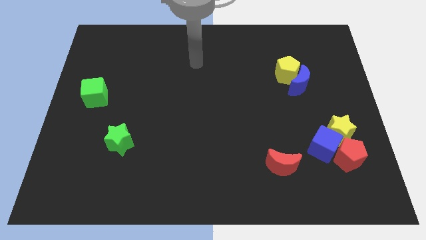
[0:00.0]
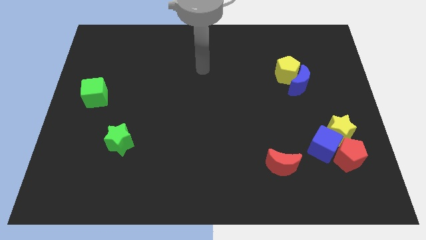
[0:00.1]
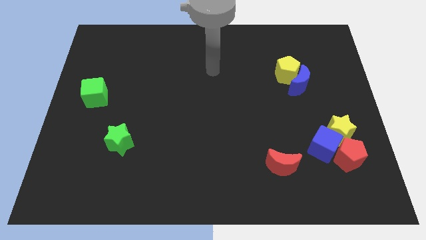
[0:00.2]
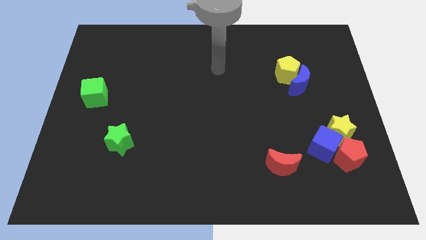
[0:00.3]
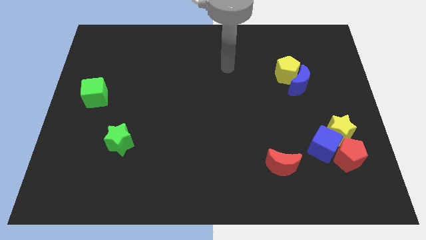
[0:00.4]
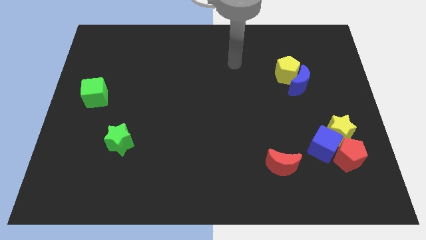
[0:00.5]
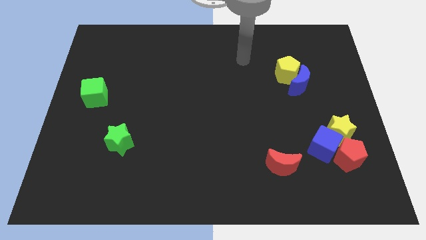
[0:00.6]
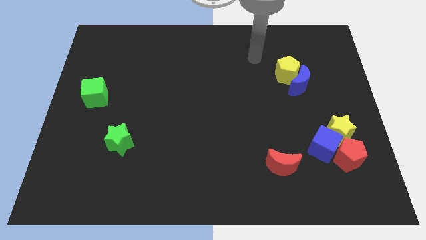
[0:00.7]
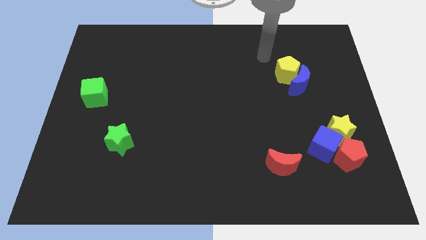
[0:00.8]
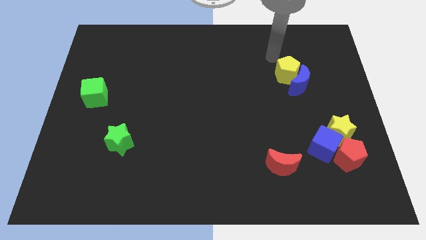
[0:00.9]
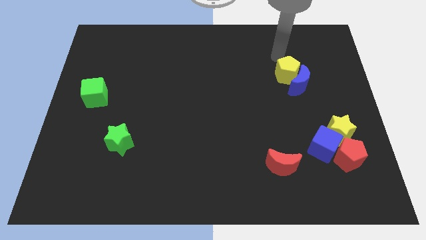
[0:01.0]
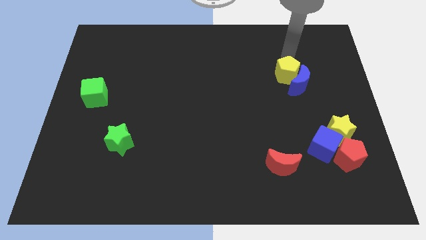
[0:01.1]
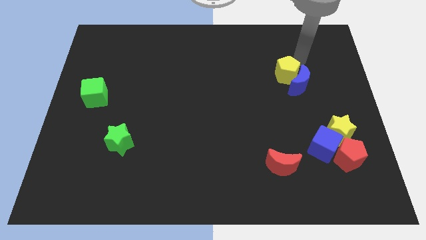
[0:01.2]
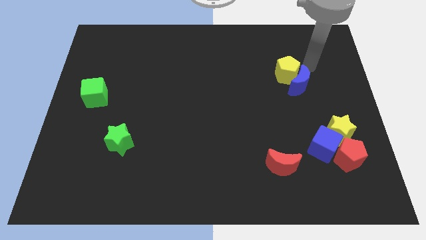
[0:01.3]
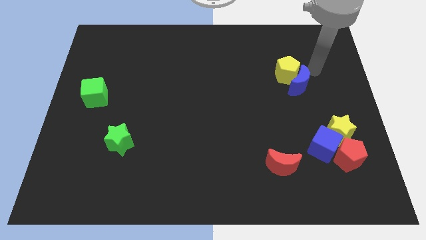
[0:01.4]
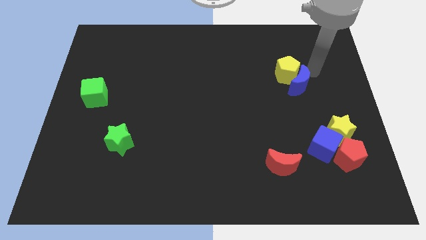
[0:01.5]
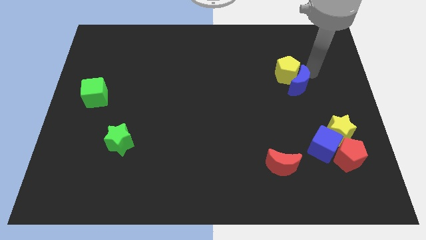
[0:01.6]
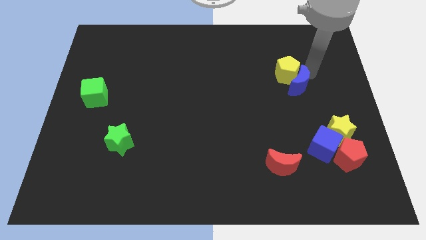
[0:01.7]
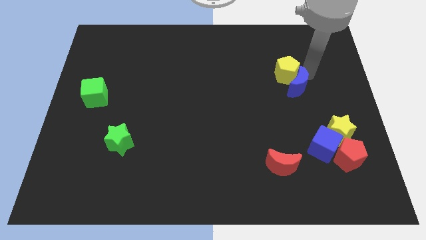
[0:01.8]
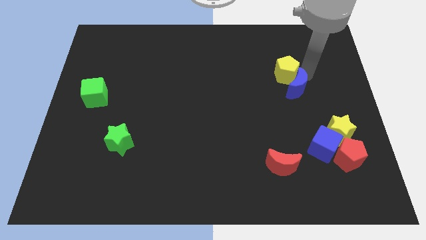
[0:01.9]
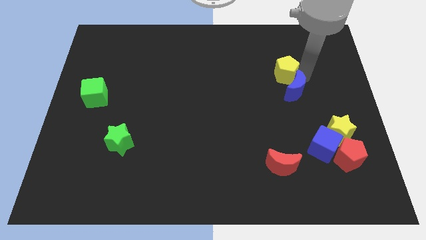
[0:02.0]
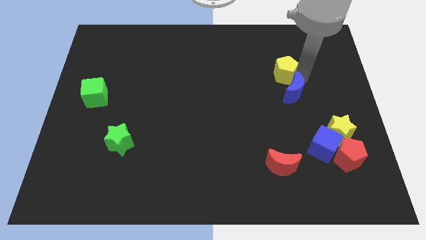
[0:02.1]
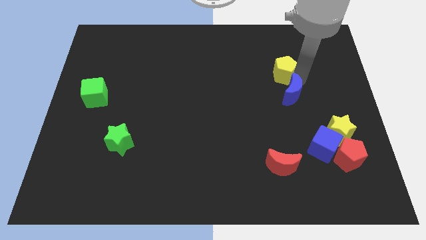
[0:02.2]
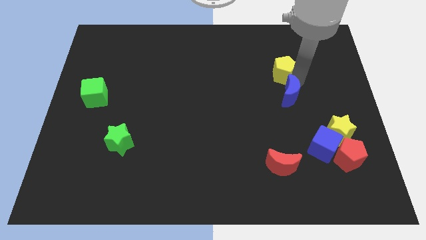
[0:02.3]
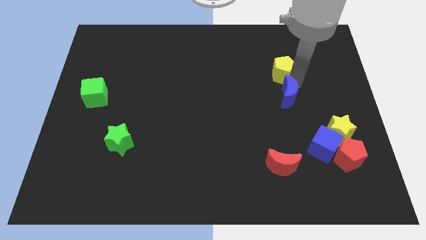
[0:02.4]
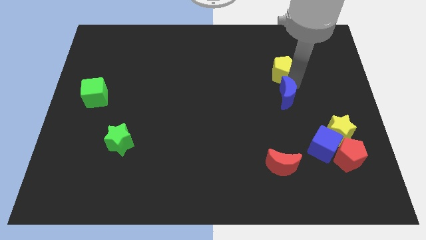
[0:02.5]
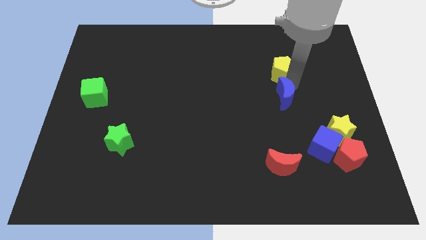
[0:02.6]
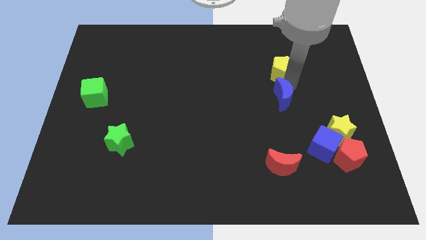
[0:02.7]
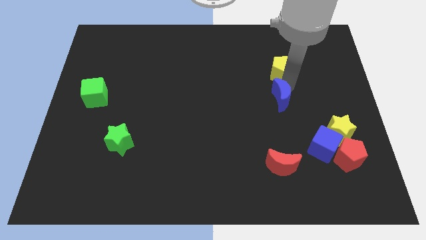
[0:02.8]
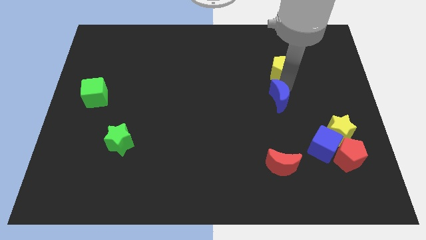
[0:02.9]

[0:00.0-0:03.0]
push the blue moon downwards and then left somewhat

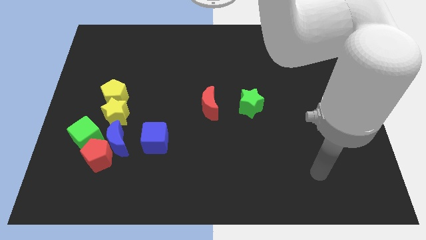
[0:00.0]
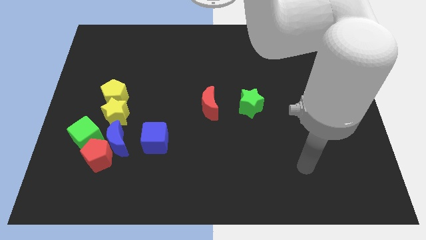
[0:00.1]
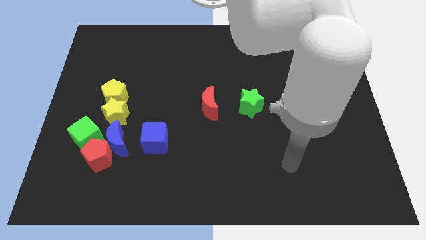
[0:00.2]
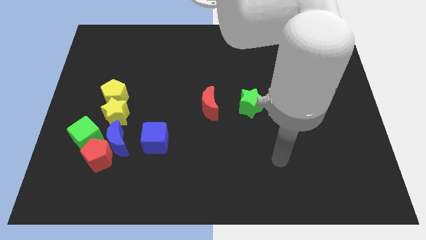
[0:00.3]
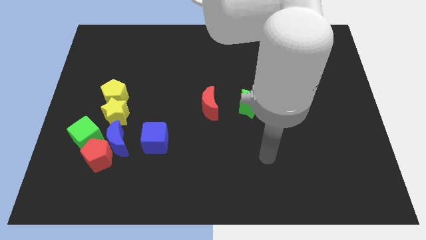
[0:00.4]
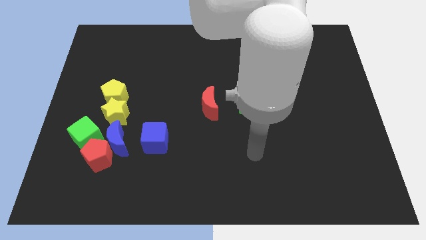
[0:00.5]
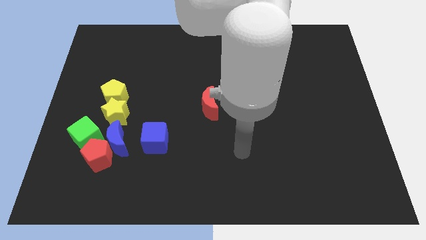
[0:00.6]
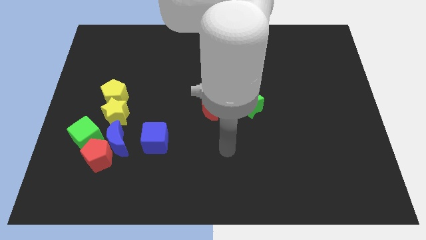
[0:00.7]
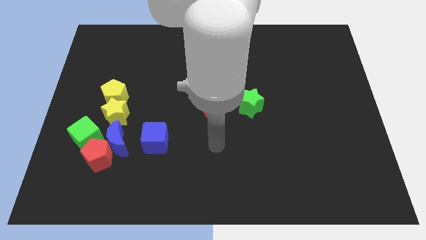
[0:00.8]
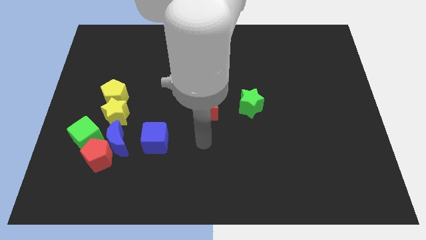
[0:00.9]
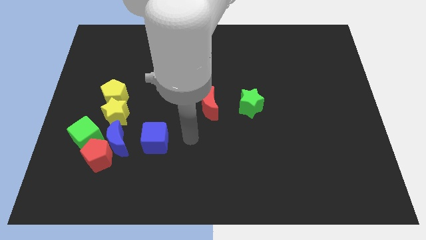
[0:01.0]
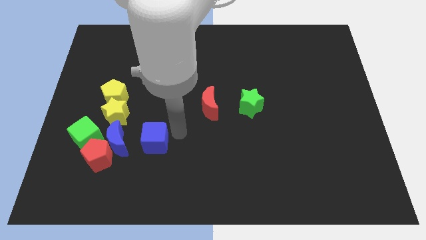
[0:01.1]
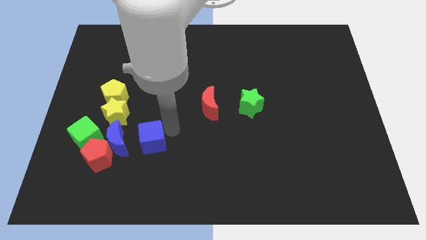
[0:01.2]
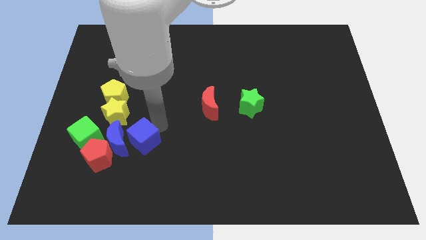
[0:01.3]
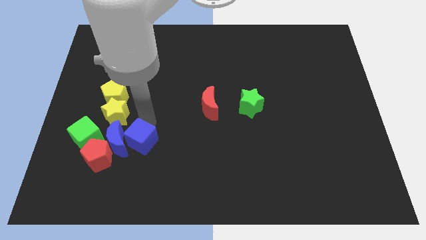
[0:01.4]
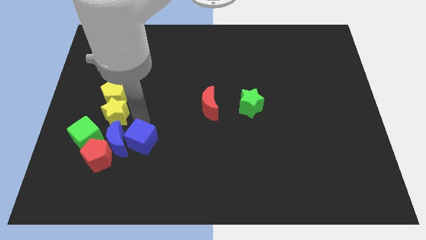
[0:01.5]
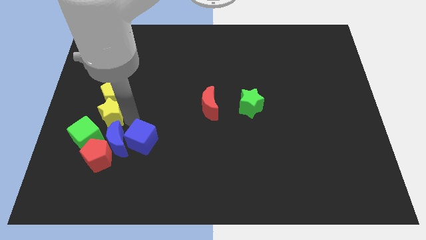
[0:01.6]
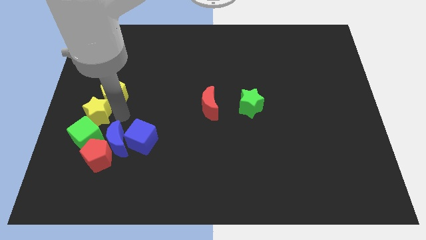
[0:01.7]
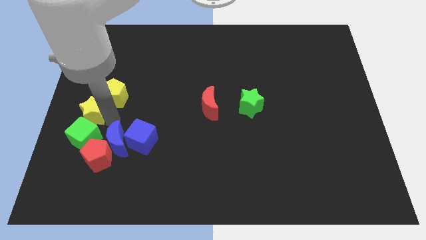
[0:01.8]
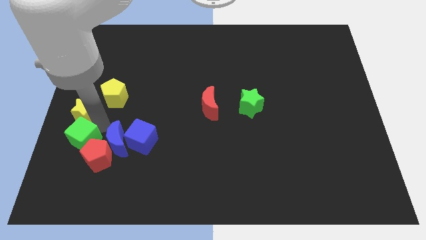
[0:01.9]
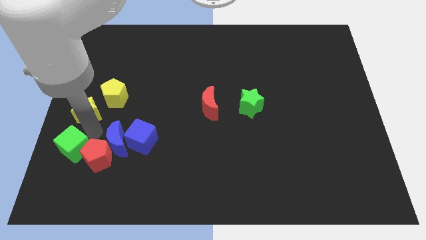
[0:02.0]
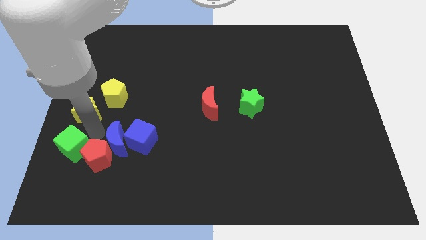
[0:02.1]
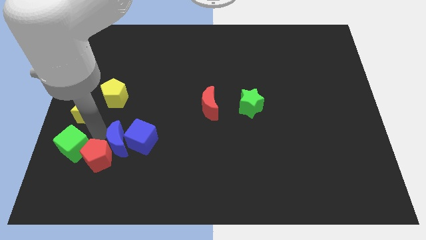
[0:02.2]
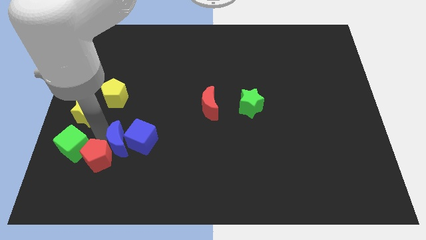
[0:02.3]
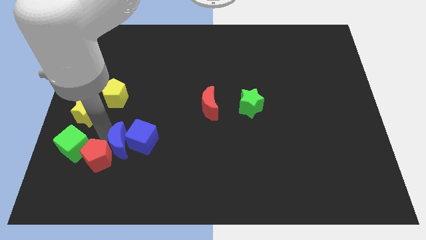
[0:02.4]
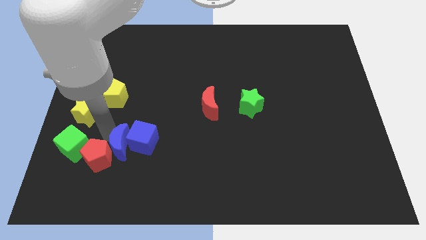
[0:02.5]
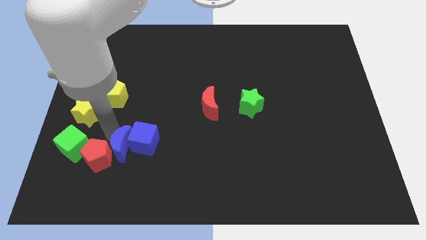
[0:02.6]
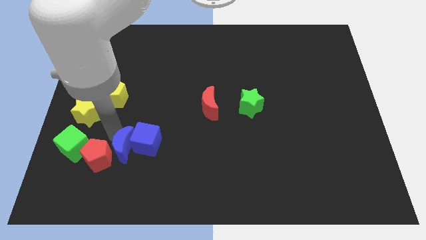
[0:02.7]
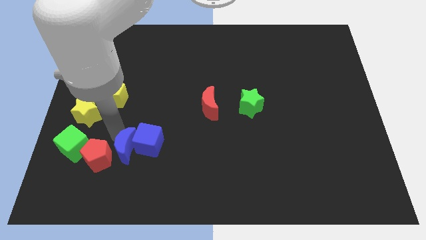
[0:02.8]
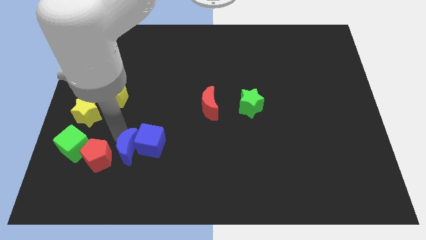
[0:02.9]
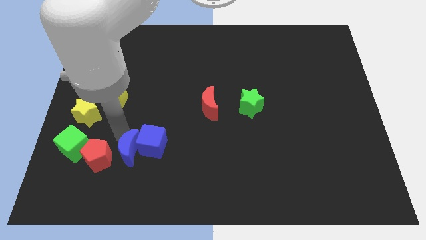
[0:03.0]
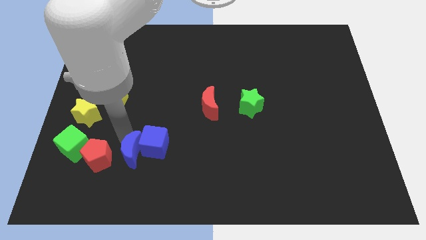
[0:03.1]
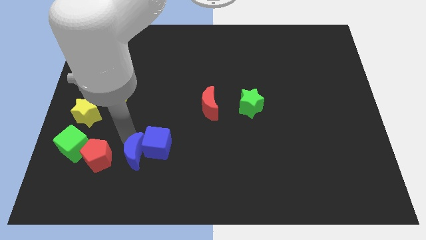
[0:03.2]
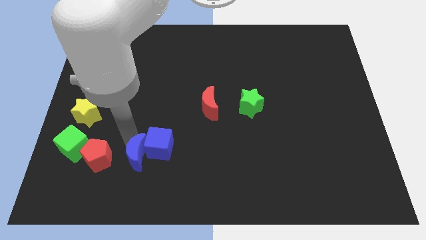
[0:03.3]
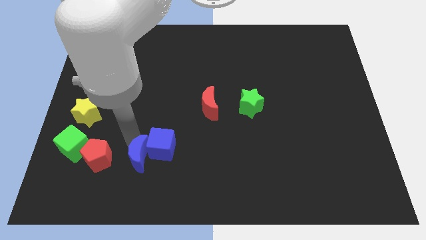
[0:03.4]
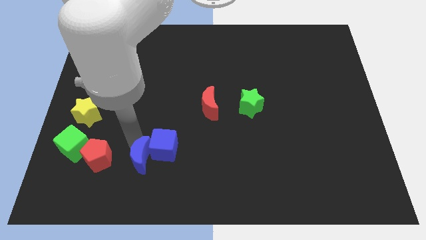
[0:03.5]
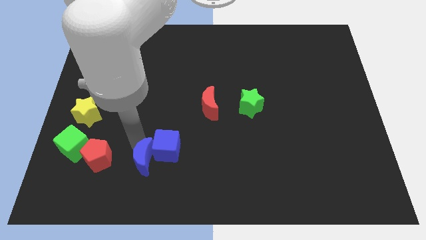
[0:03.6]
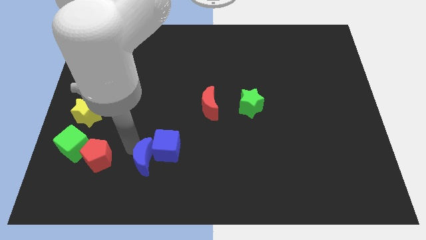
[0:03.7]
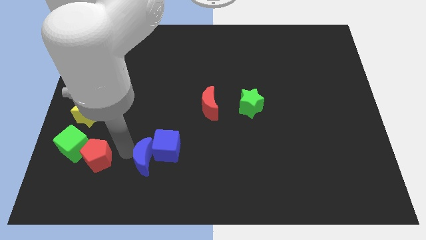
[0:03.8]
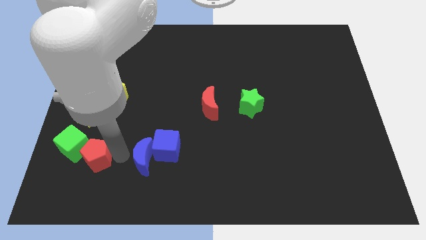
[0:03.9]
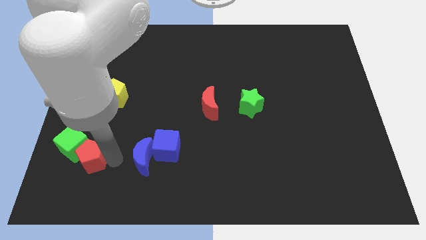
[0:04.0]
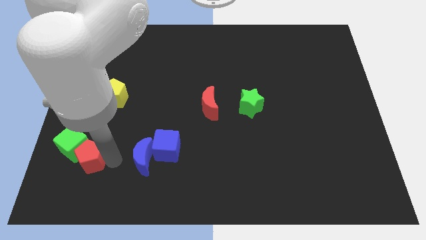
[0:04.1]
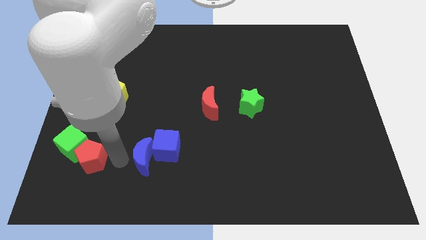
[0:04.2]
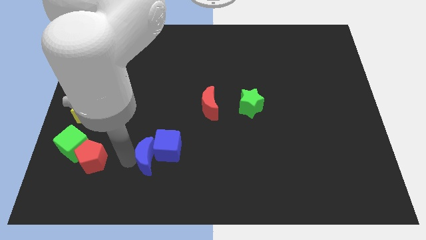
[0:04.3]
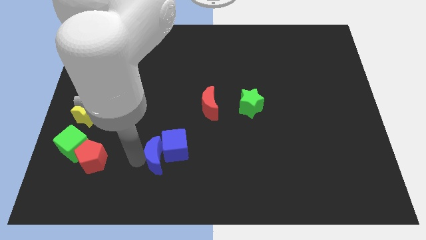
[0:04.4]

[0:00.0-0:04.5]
push the blue moon to the right somewhat

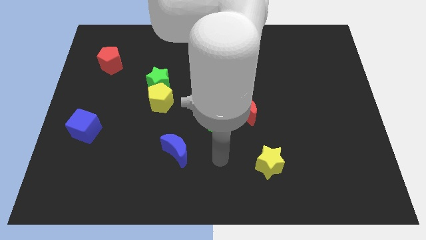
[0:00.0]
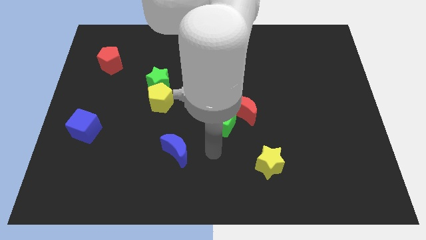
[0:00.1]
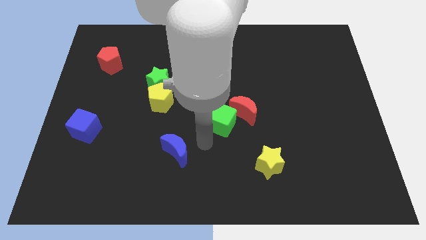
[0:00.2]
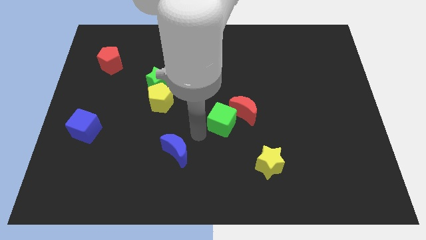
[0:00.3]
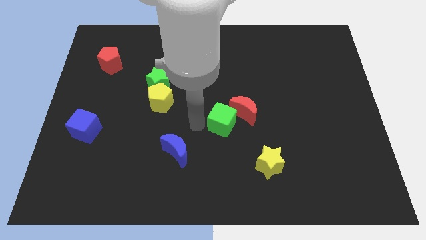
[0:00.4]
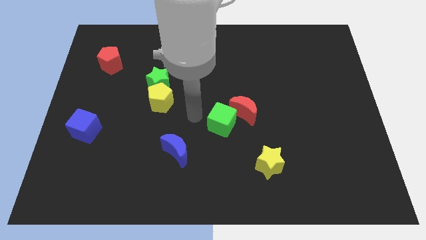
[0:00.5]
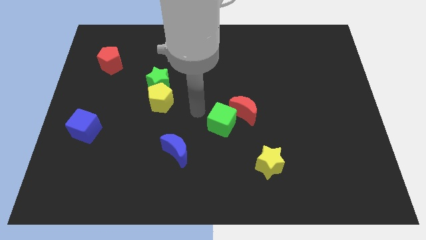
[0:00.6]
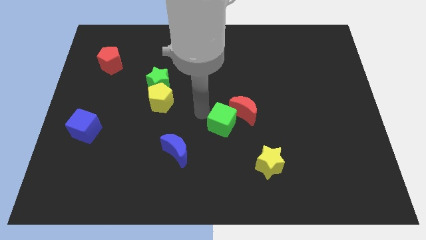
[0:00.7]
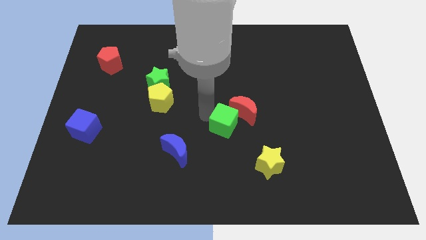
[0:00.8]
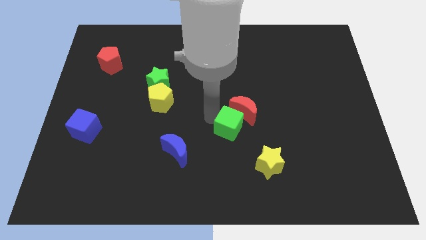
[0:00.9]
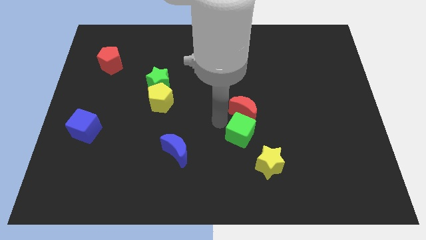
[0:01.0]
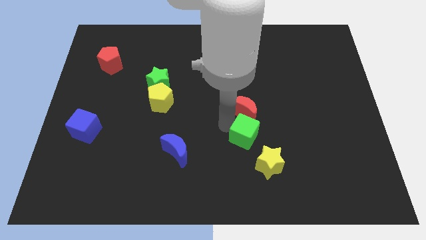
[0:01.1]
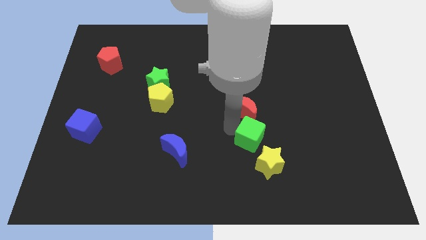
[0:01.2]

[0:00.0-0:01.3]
push the green cube slightly down and right diagonally
